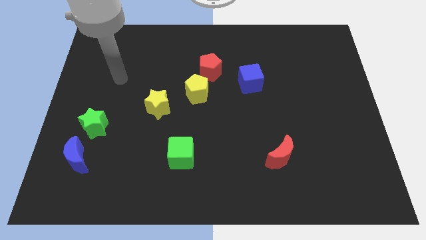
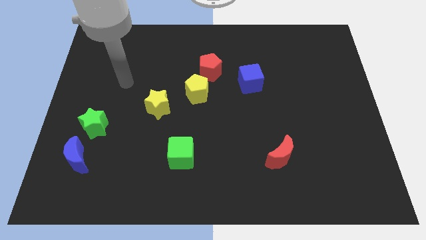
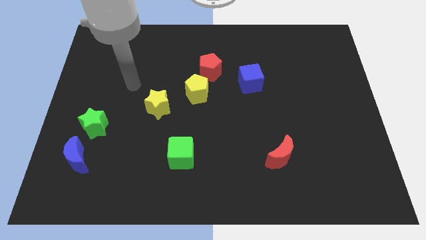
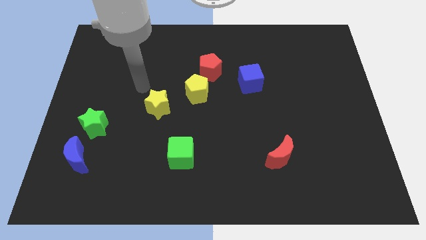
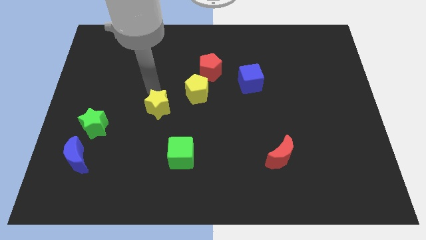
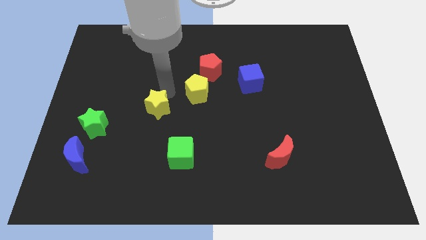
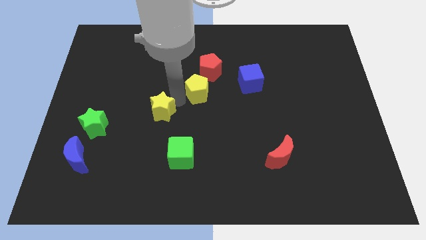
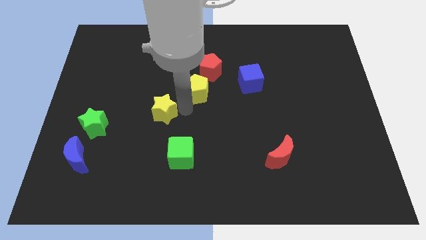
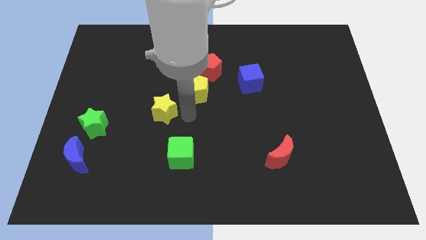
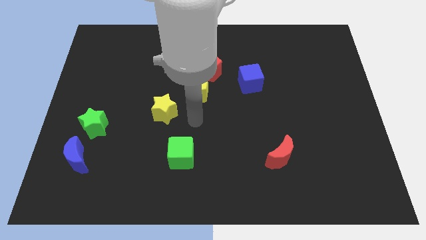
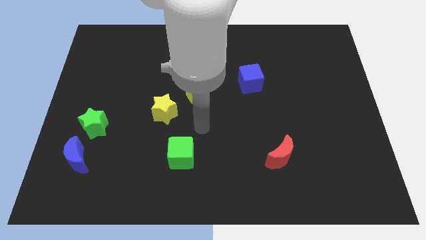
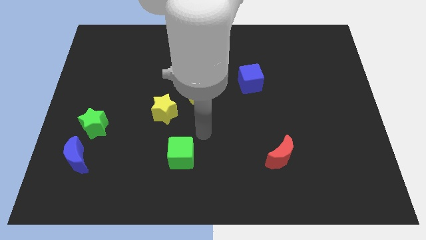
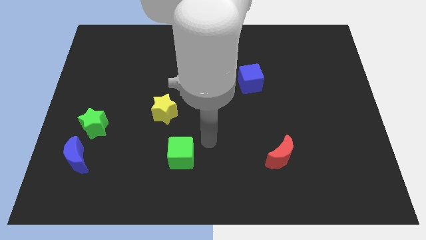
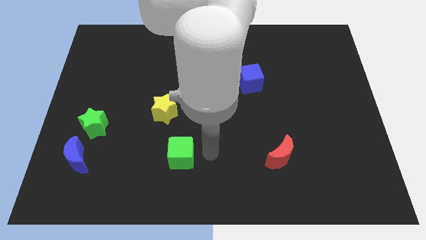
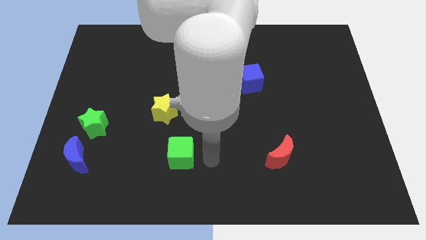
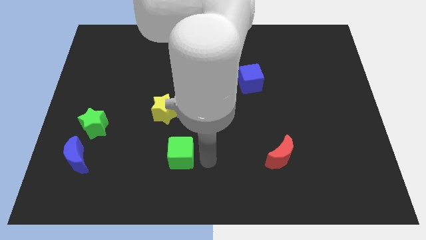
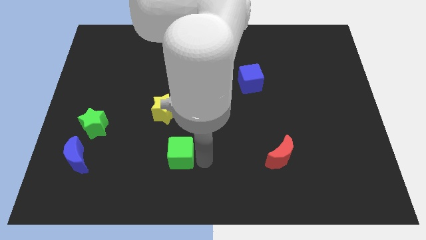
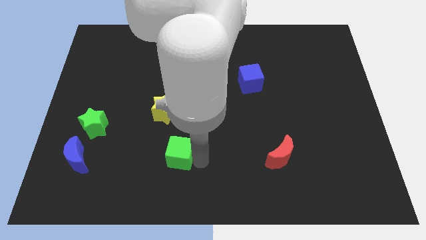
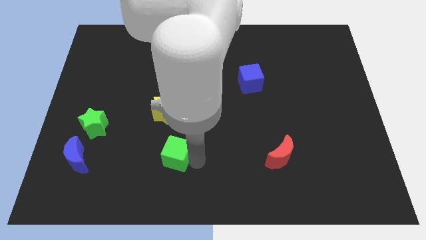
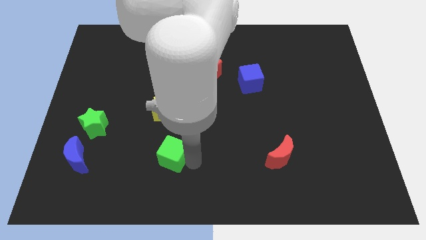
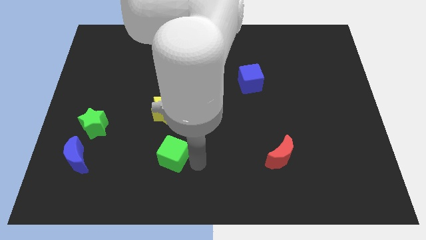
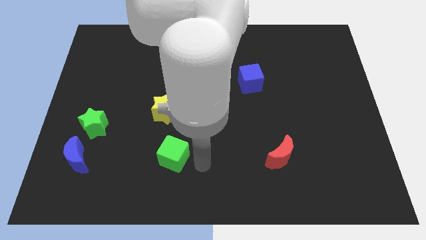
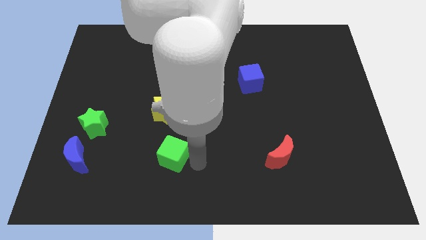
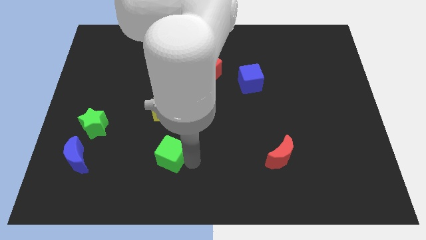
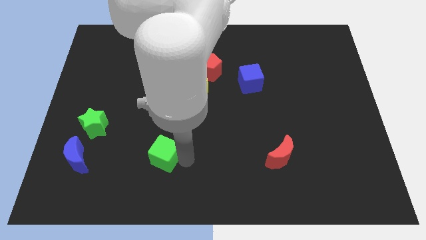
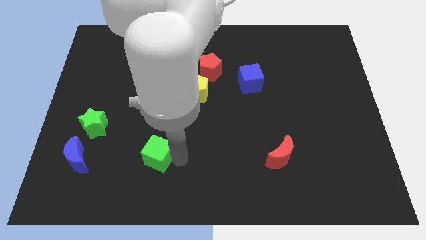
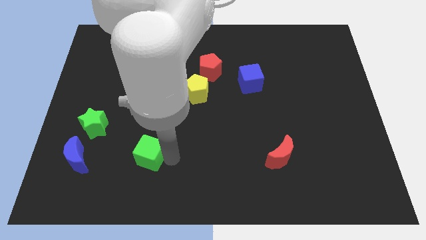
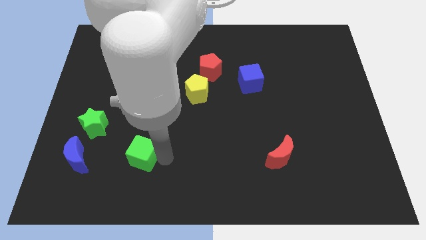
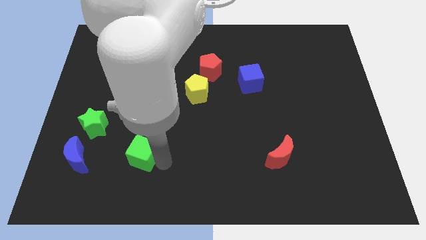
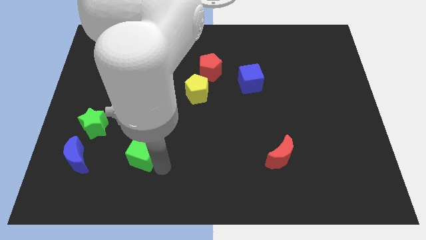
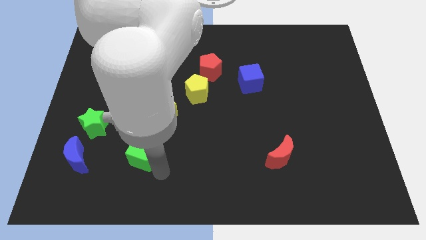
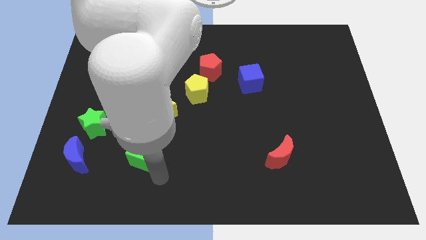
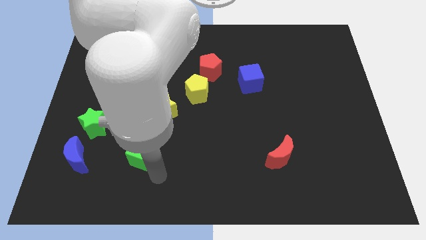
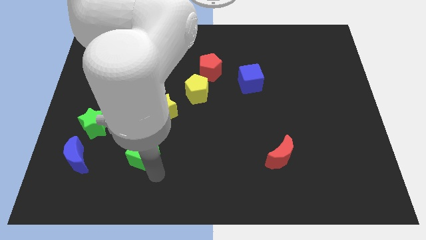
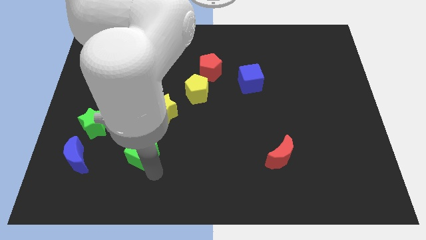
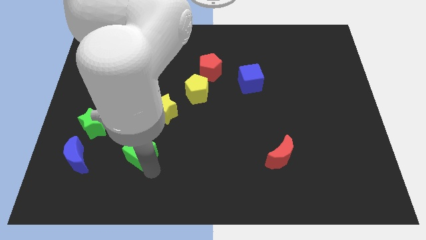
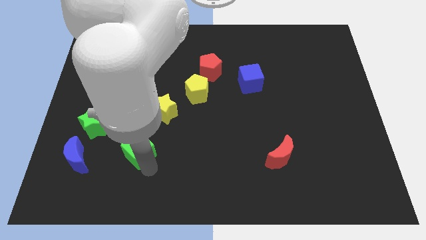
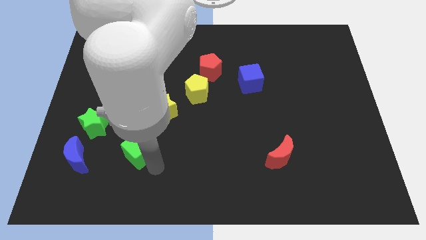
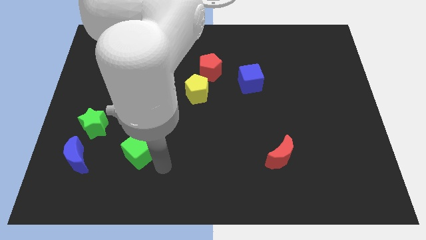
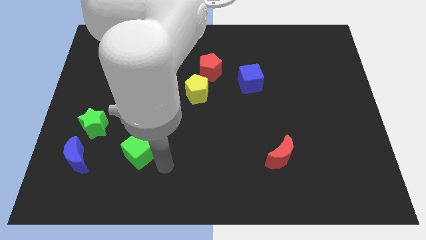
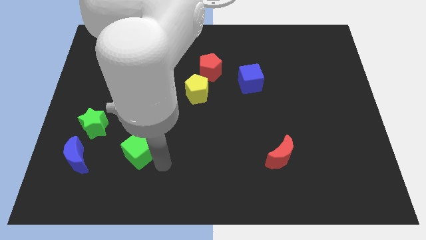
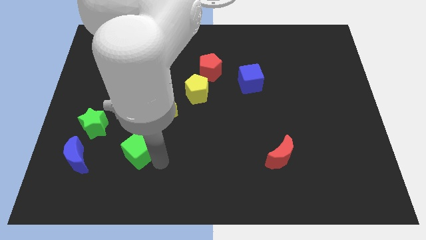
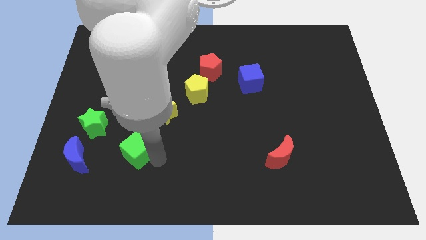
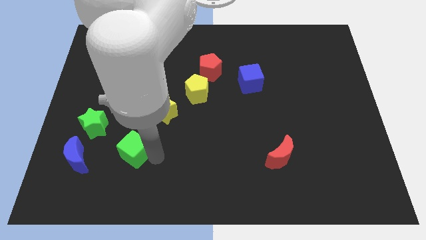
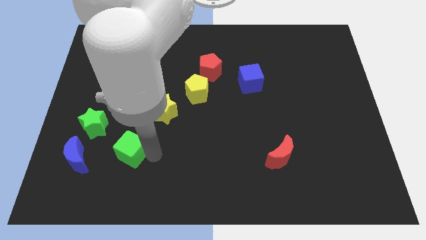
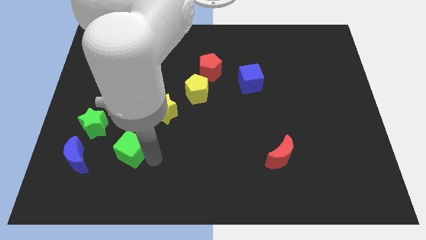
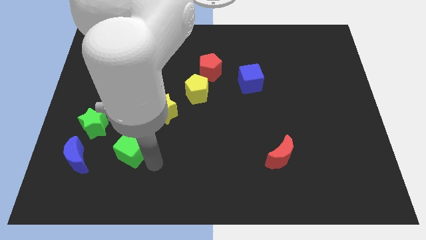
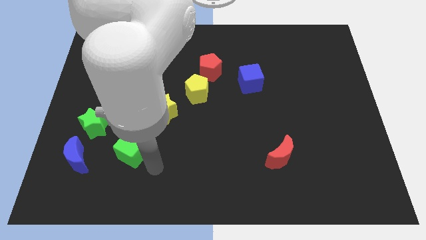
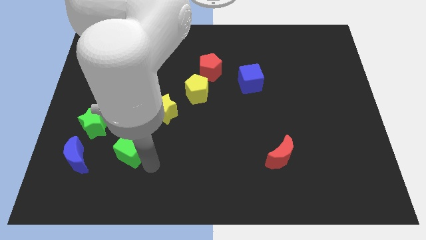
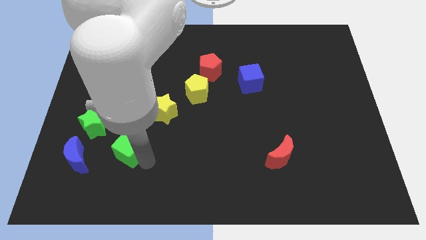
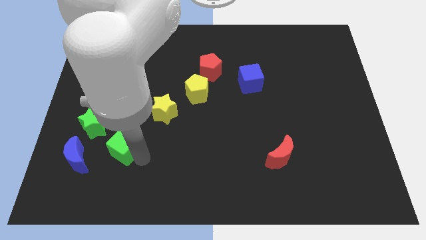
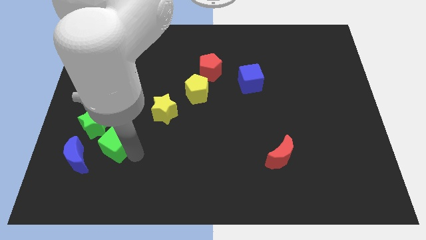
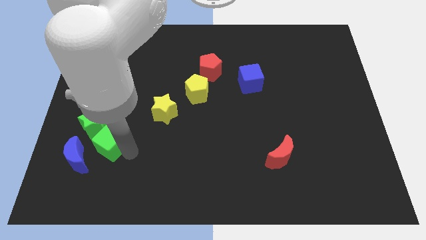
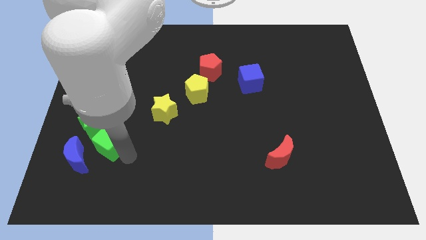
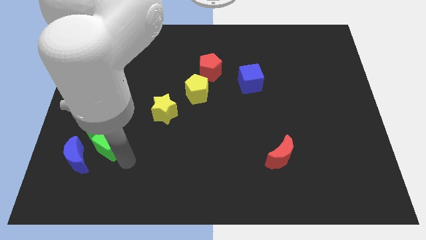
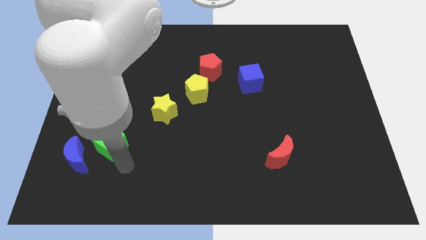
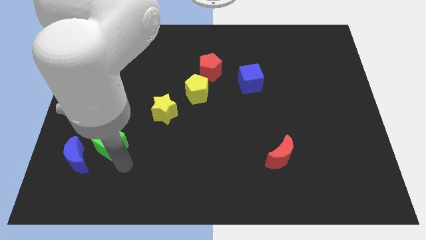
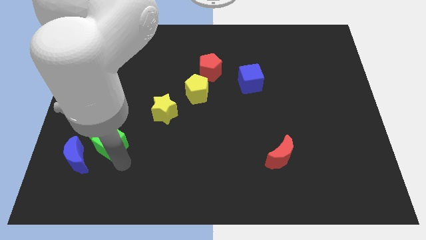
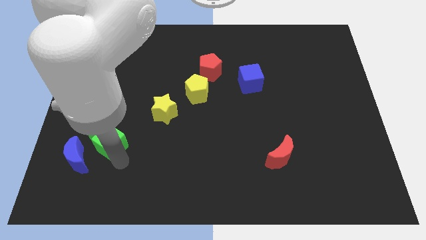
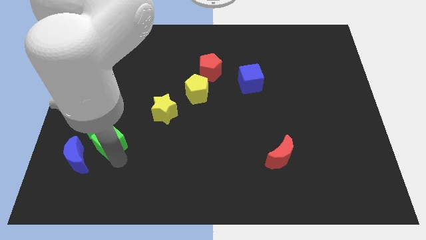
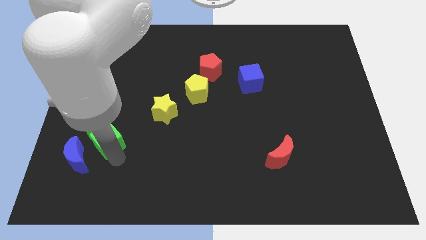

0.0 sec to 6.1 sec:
move the green cube to the green star

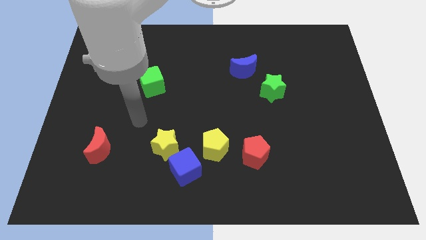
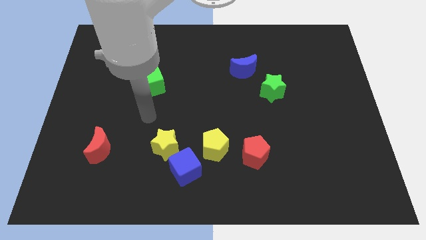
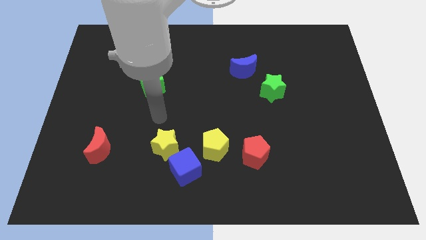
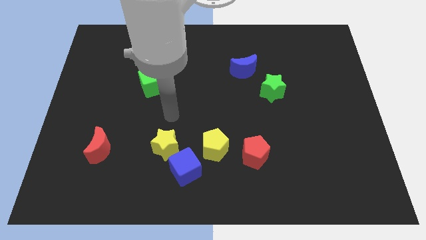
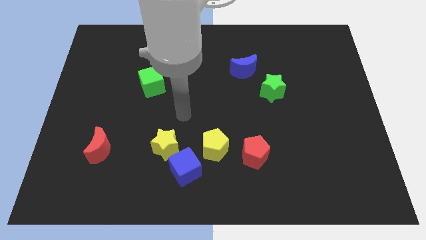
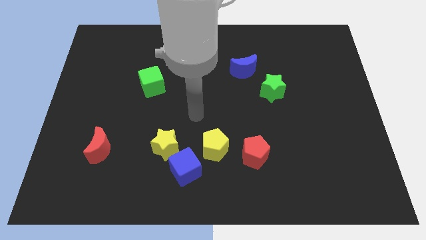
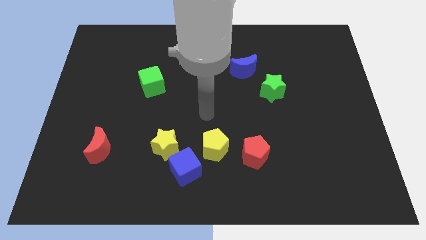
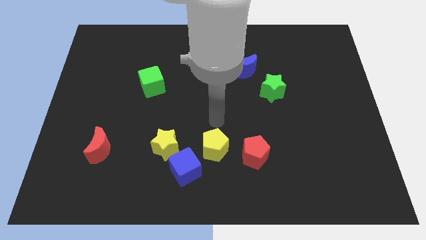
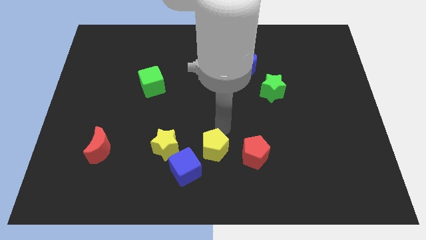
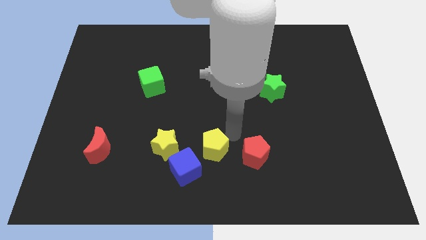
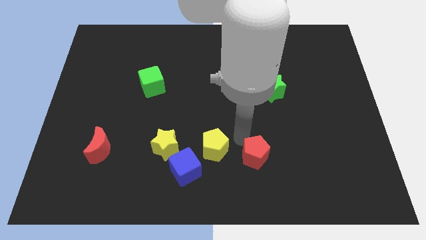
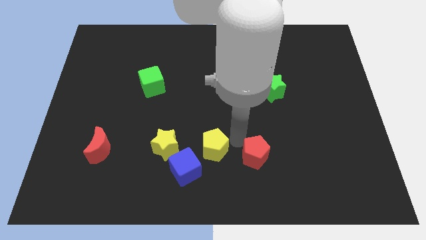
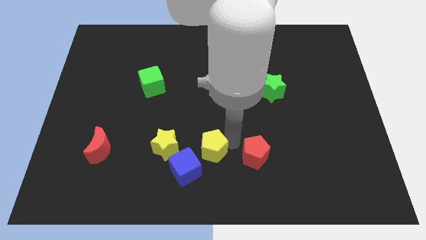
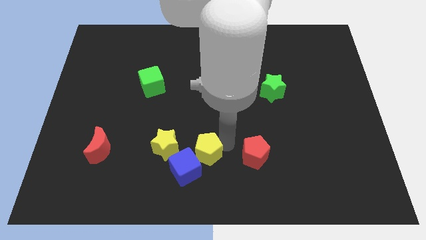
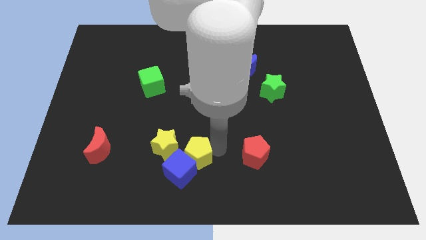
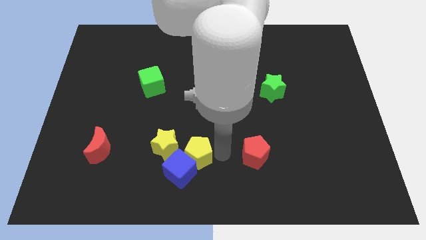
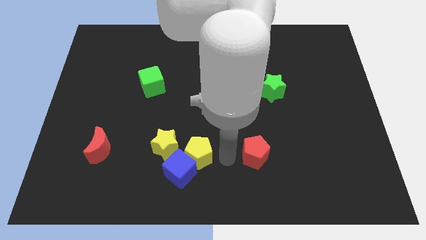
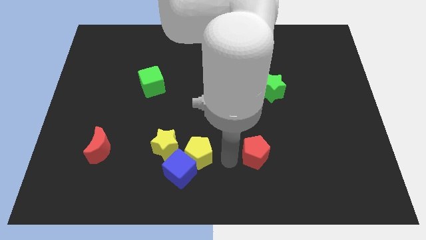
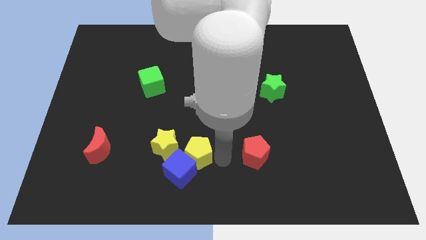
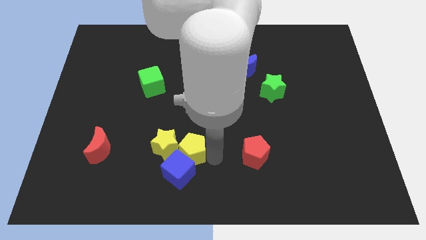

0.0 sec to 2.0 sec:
put the yellow pentagon close to the yellow star
